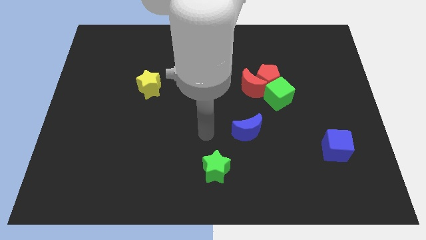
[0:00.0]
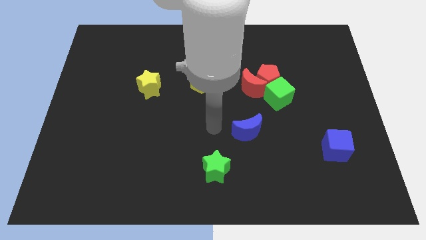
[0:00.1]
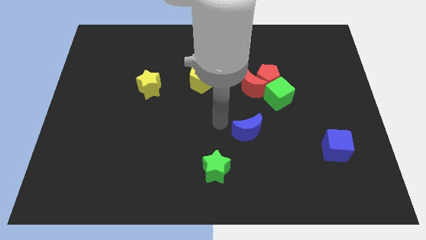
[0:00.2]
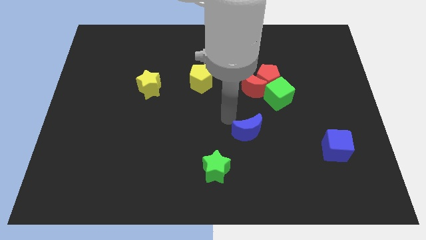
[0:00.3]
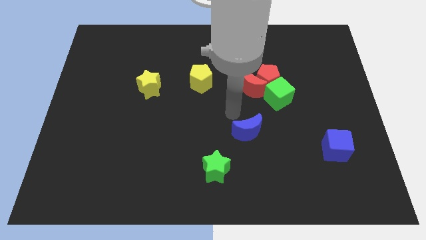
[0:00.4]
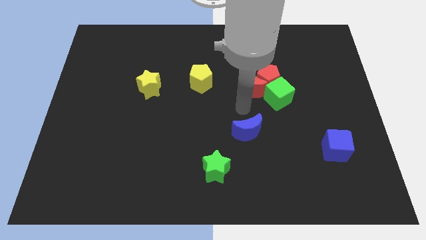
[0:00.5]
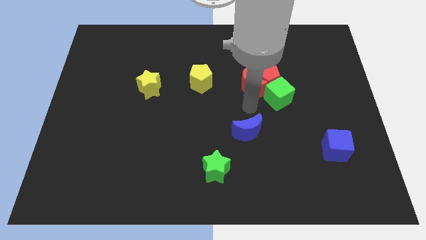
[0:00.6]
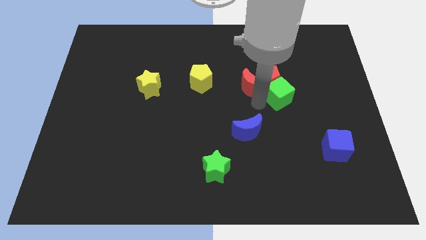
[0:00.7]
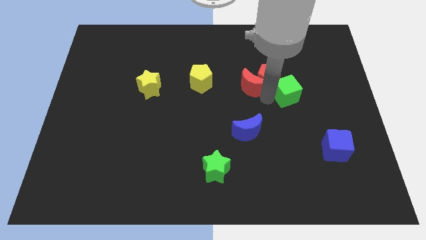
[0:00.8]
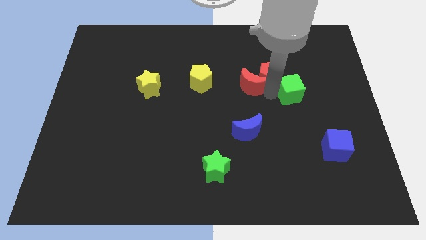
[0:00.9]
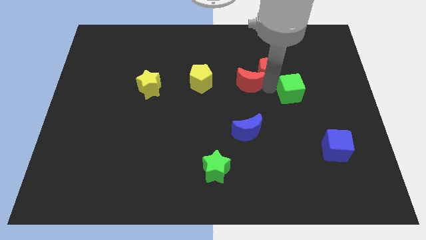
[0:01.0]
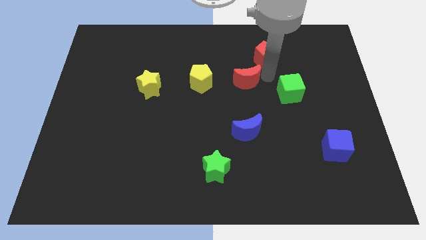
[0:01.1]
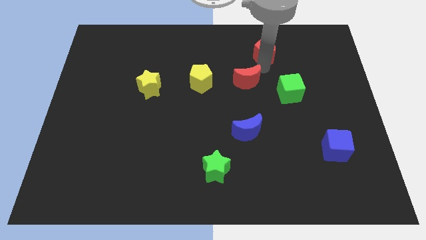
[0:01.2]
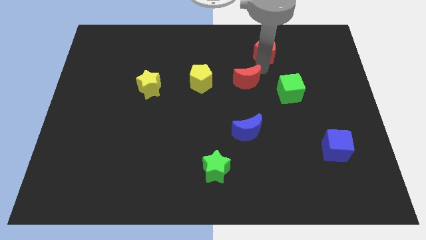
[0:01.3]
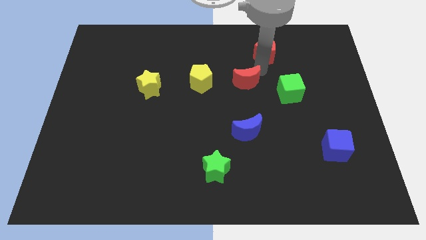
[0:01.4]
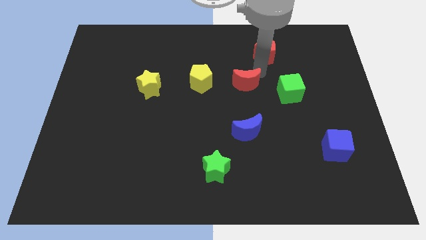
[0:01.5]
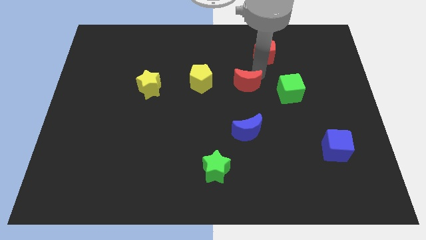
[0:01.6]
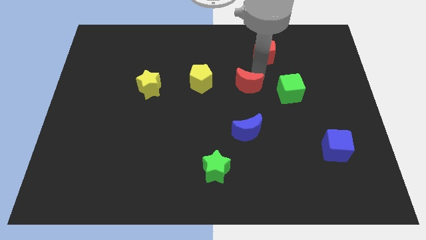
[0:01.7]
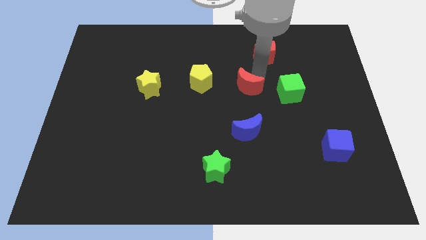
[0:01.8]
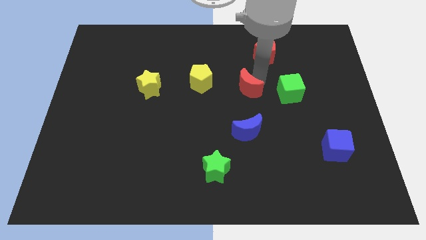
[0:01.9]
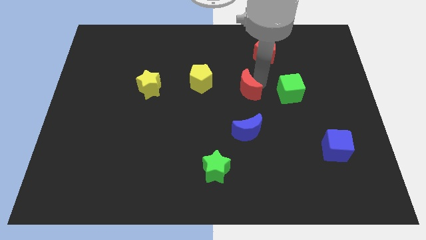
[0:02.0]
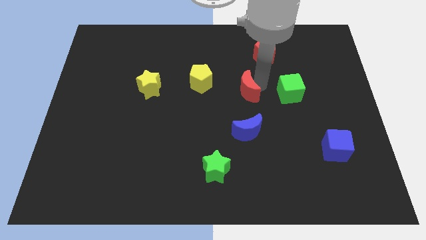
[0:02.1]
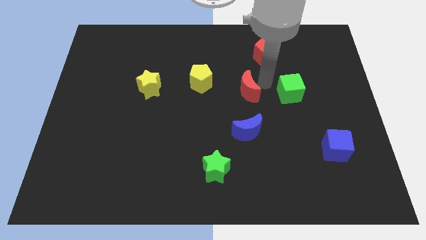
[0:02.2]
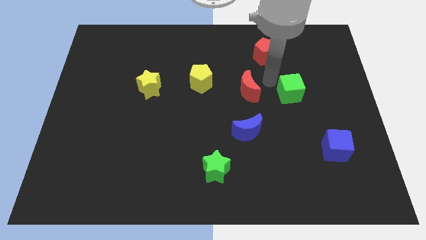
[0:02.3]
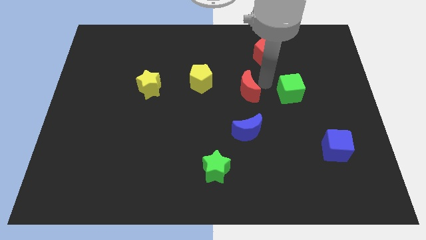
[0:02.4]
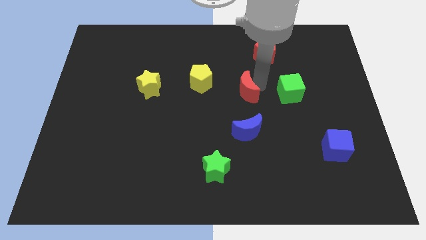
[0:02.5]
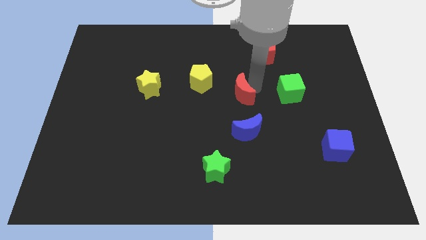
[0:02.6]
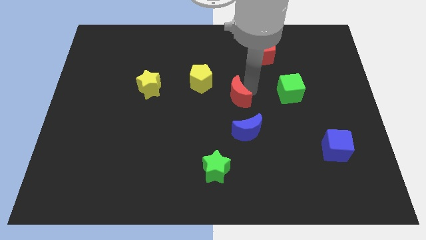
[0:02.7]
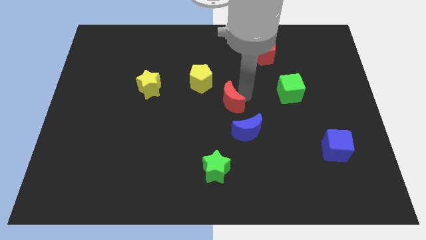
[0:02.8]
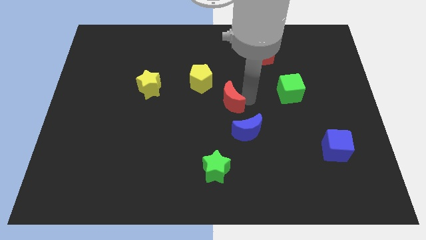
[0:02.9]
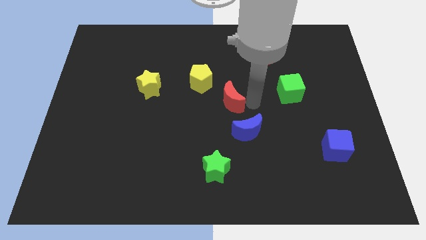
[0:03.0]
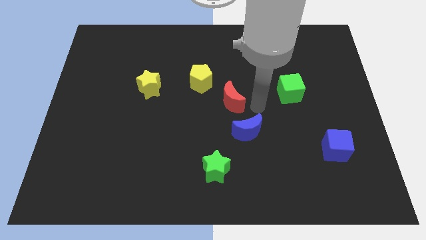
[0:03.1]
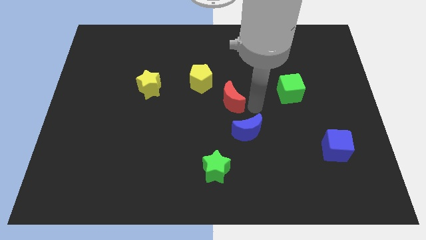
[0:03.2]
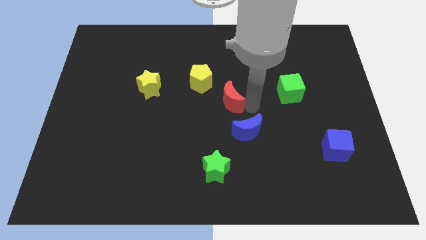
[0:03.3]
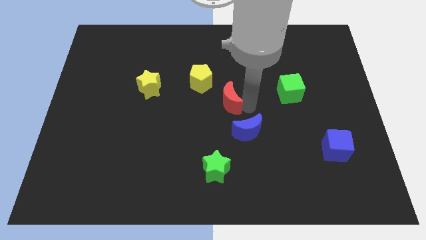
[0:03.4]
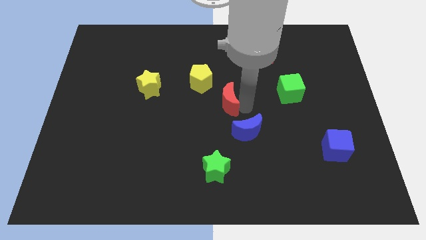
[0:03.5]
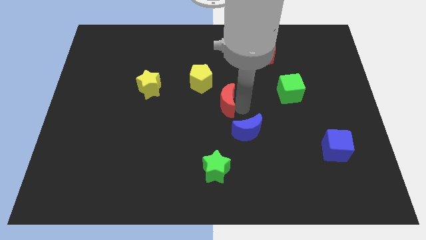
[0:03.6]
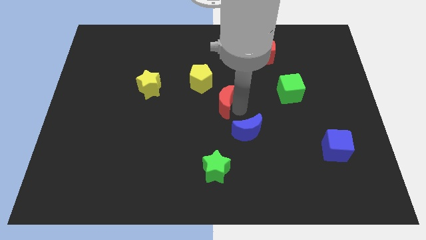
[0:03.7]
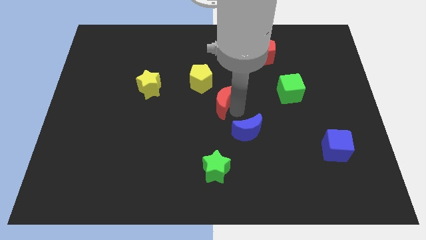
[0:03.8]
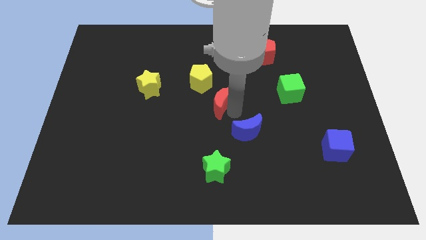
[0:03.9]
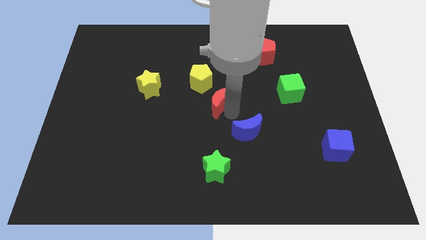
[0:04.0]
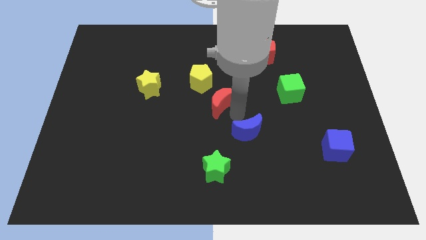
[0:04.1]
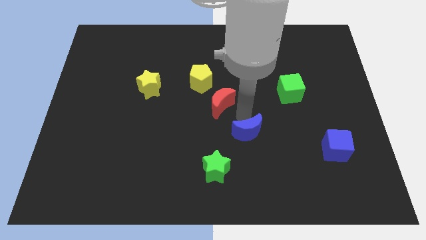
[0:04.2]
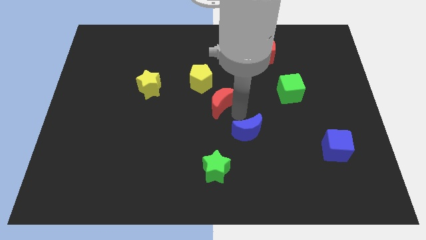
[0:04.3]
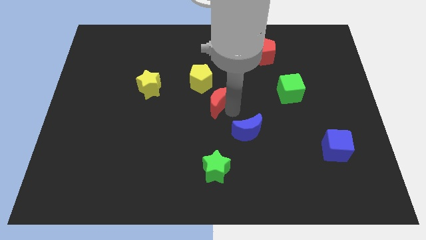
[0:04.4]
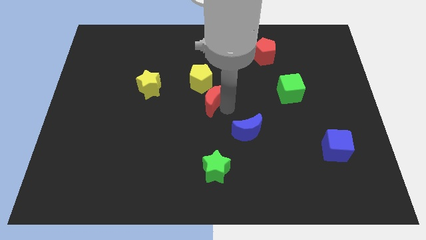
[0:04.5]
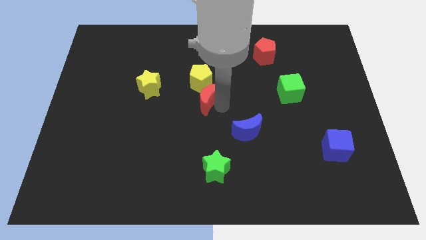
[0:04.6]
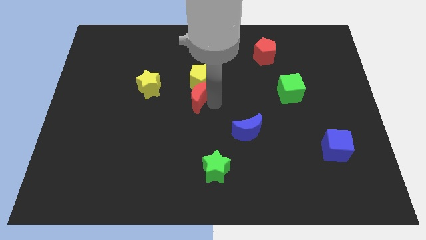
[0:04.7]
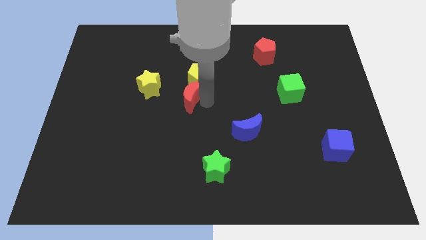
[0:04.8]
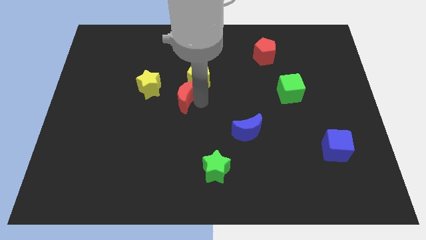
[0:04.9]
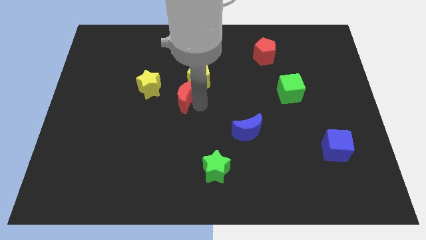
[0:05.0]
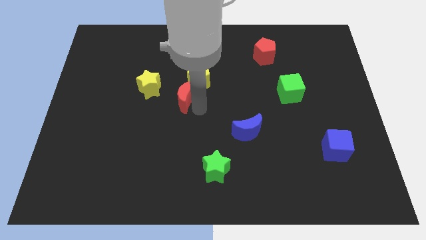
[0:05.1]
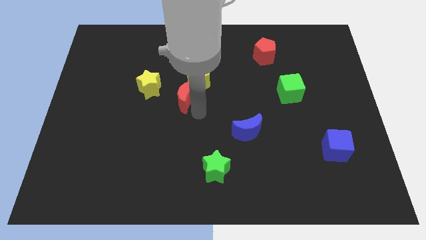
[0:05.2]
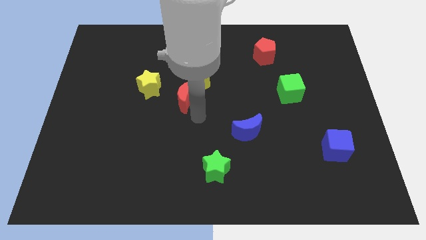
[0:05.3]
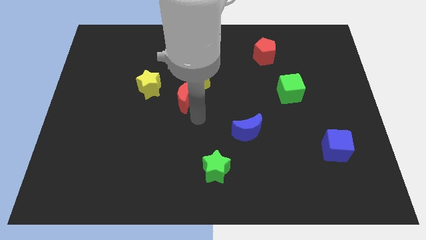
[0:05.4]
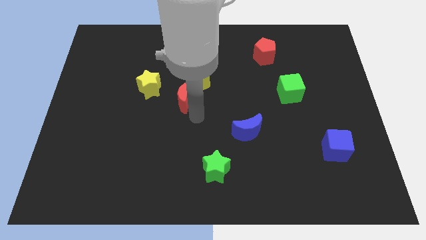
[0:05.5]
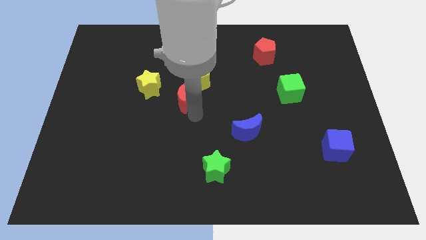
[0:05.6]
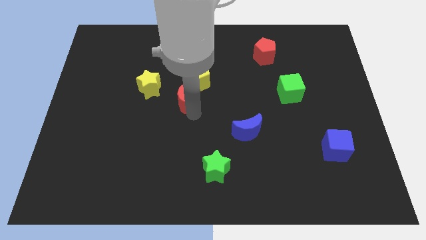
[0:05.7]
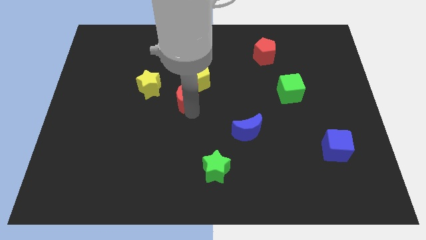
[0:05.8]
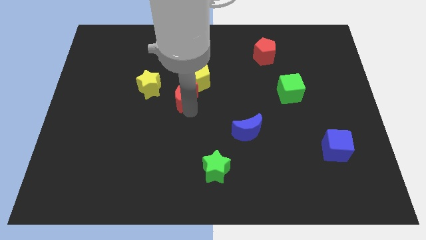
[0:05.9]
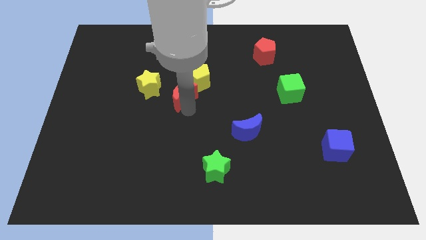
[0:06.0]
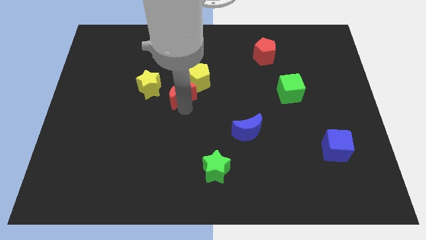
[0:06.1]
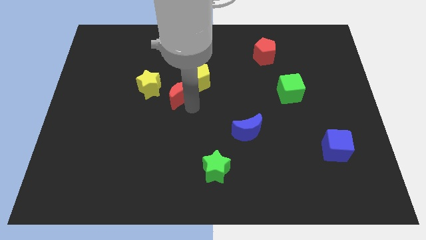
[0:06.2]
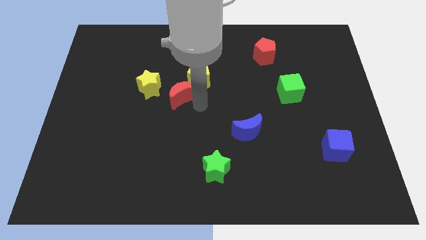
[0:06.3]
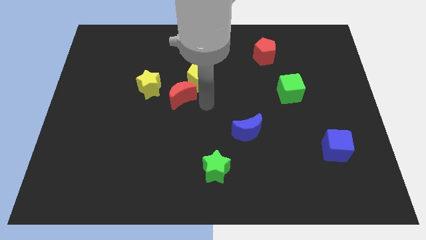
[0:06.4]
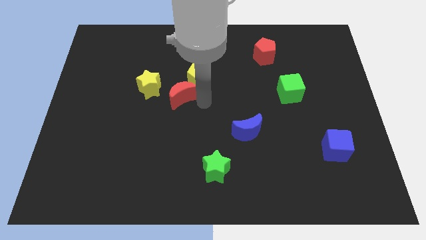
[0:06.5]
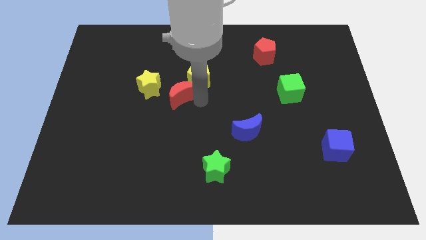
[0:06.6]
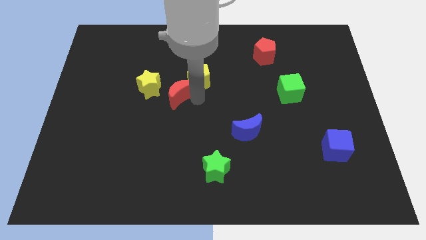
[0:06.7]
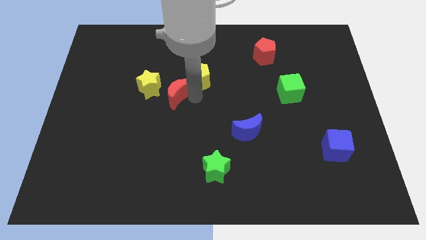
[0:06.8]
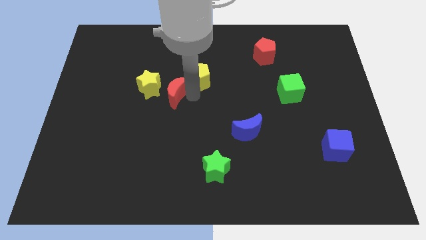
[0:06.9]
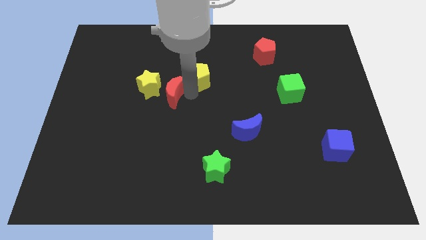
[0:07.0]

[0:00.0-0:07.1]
put the red moon next to the yellow star

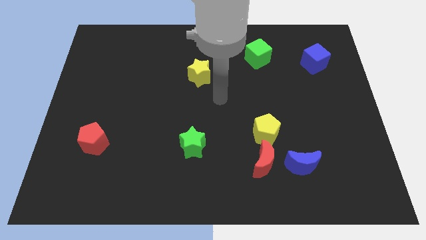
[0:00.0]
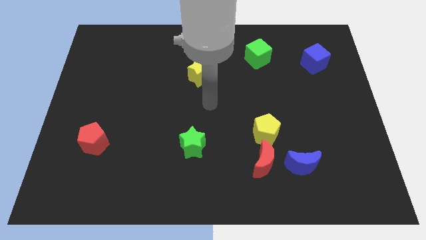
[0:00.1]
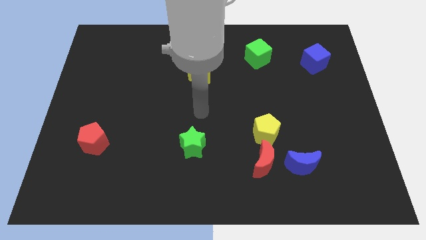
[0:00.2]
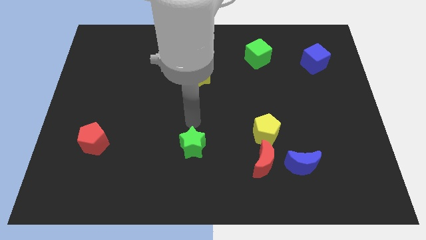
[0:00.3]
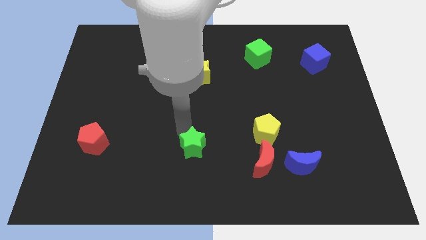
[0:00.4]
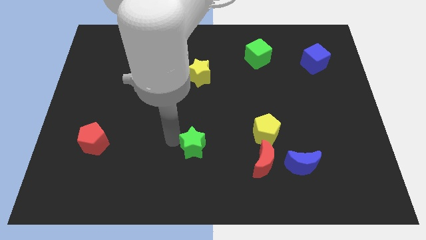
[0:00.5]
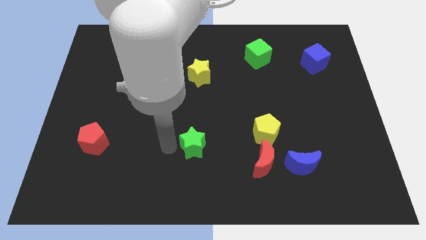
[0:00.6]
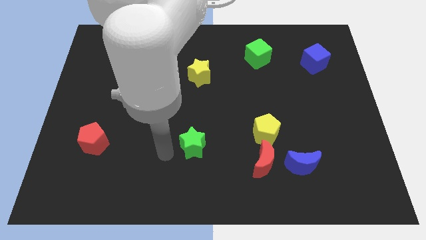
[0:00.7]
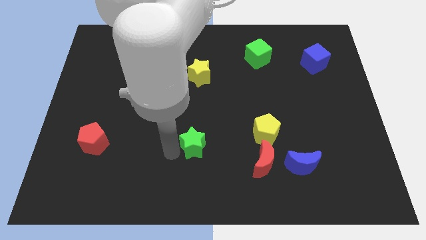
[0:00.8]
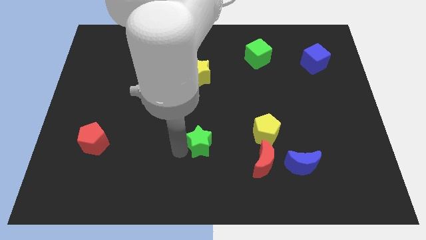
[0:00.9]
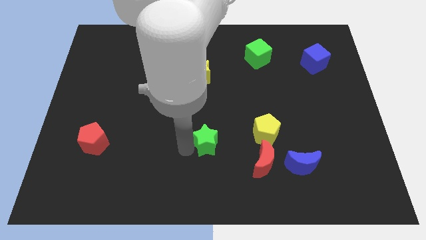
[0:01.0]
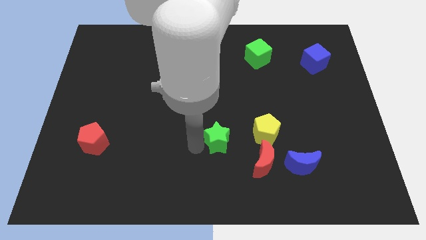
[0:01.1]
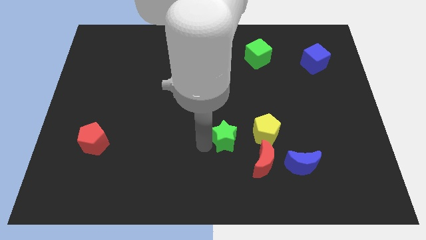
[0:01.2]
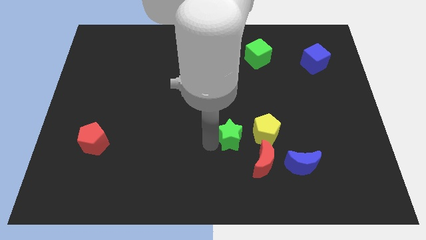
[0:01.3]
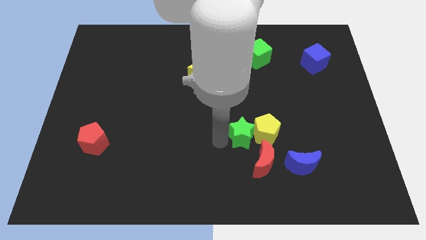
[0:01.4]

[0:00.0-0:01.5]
move the green star next to the yellow pentagon
